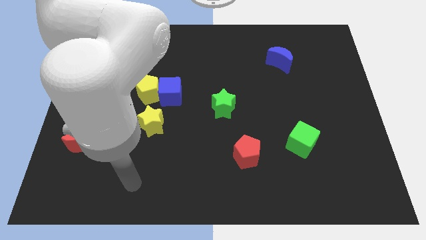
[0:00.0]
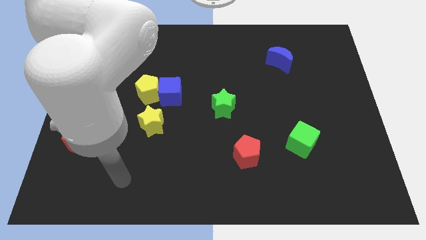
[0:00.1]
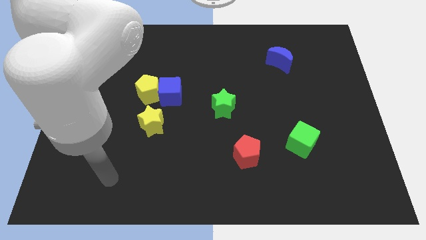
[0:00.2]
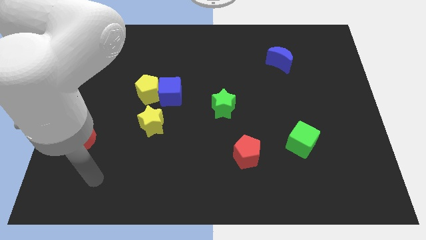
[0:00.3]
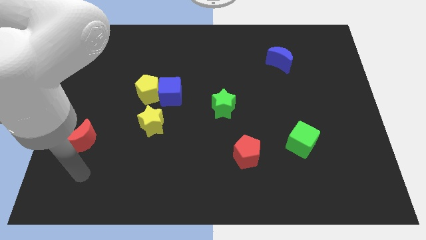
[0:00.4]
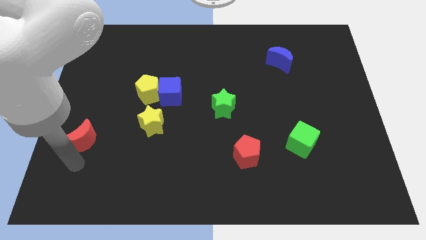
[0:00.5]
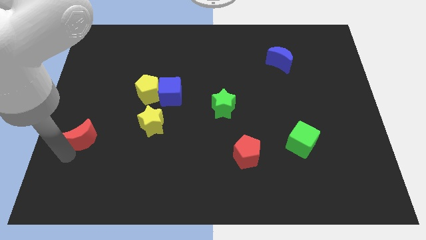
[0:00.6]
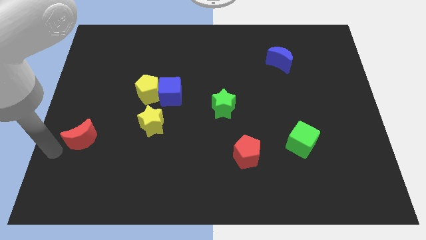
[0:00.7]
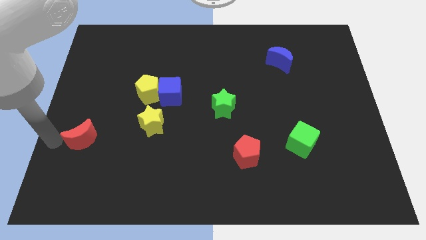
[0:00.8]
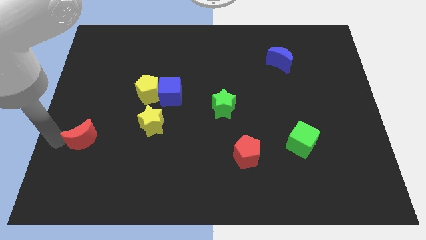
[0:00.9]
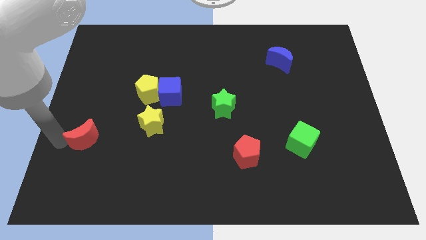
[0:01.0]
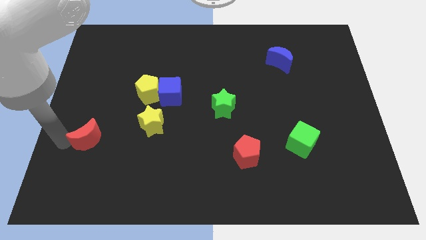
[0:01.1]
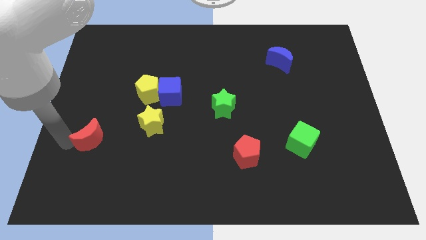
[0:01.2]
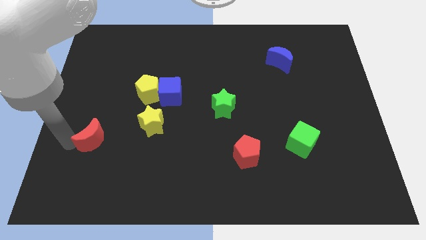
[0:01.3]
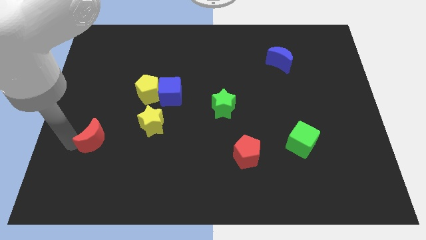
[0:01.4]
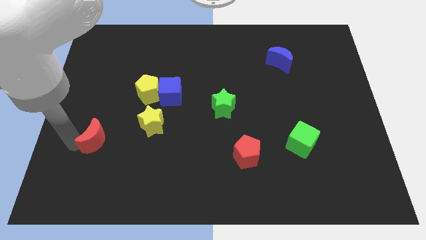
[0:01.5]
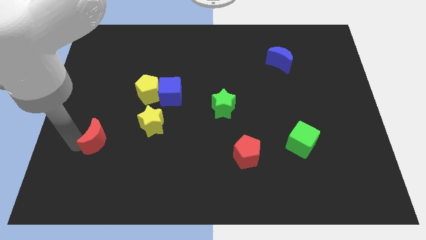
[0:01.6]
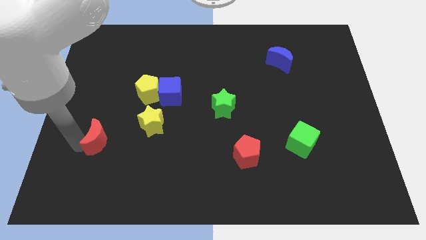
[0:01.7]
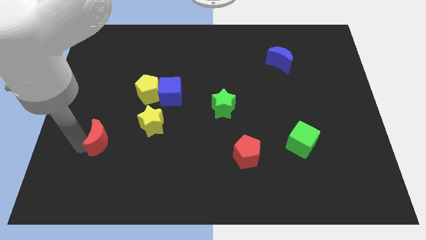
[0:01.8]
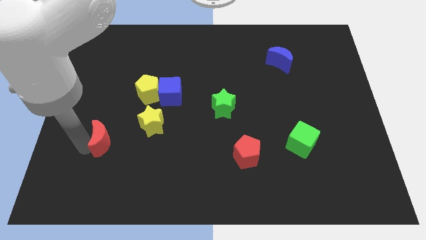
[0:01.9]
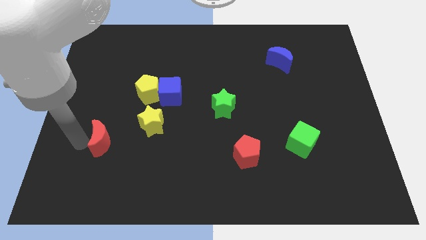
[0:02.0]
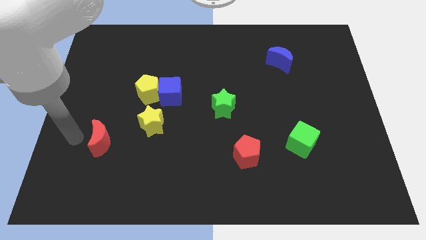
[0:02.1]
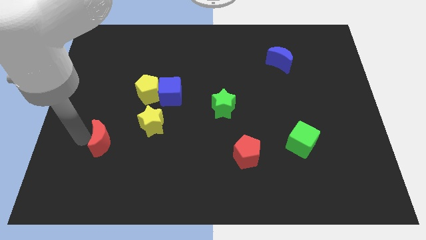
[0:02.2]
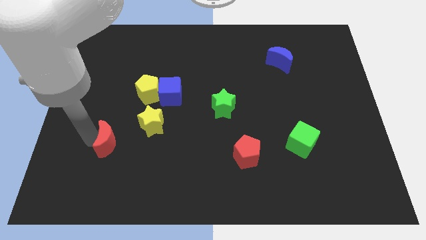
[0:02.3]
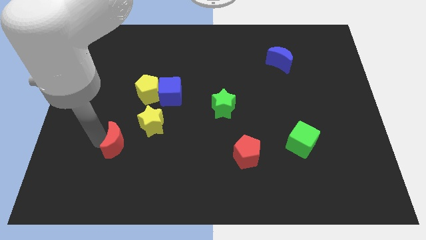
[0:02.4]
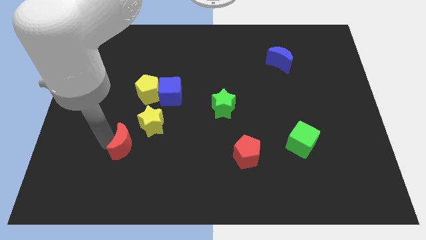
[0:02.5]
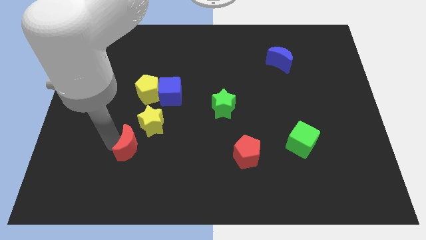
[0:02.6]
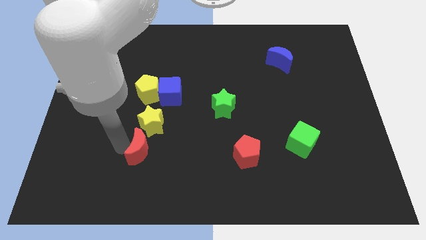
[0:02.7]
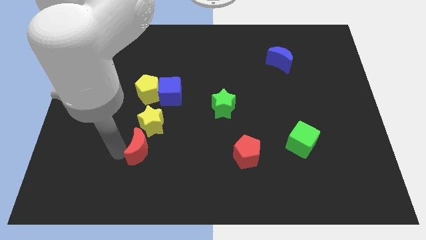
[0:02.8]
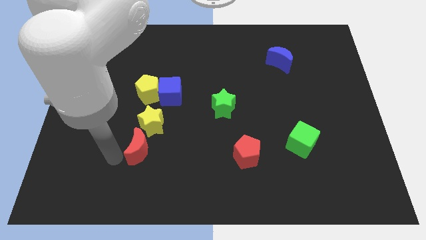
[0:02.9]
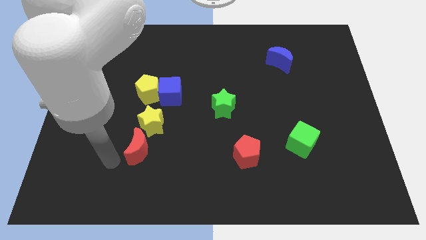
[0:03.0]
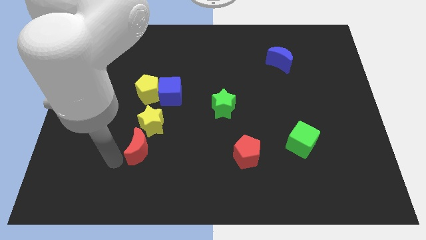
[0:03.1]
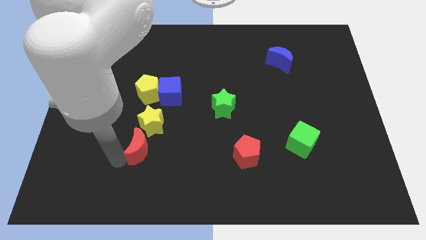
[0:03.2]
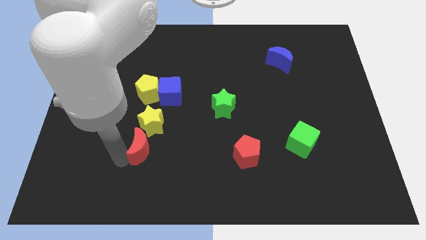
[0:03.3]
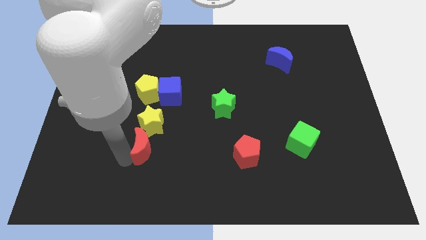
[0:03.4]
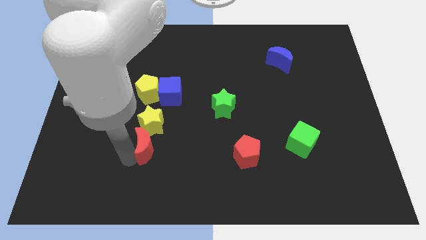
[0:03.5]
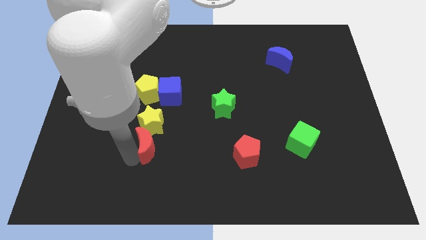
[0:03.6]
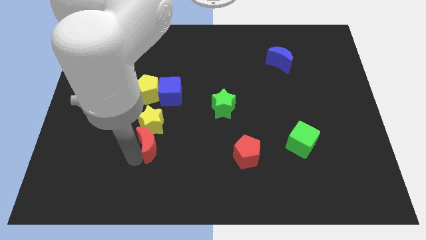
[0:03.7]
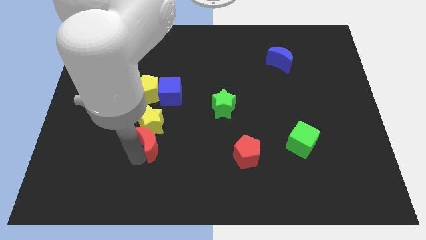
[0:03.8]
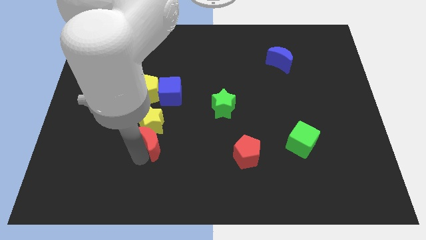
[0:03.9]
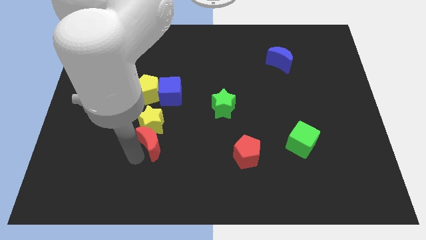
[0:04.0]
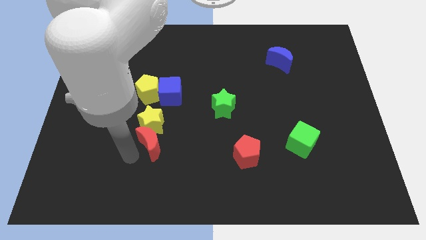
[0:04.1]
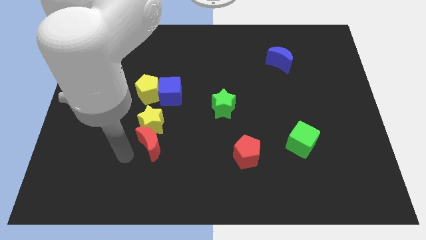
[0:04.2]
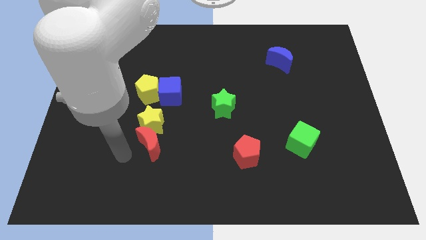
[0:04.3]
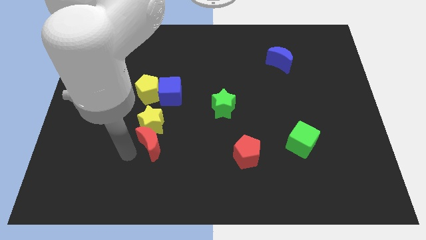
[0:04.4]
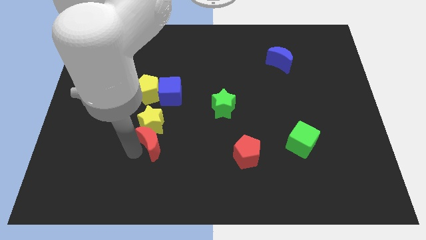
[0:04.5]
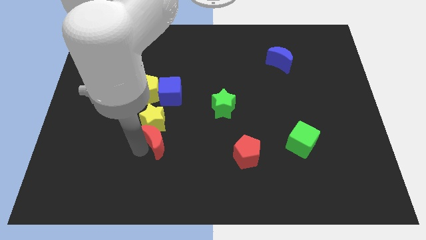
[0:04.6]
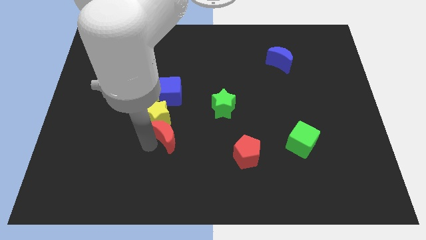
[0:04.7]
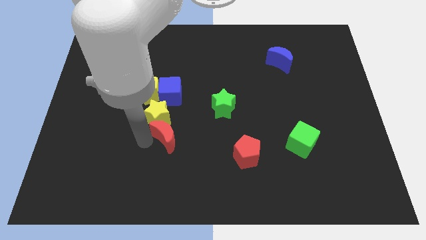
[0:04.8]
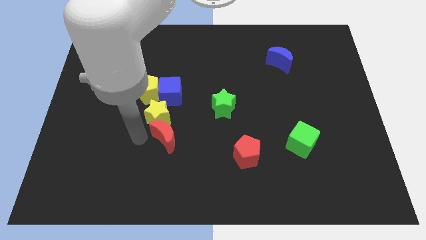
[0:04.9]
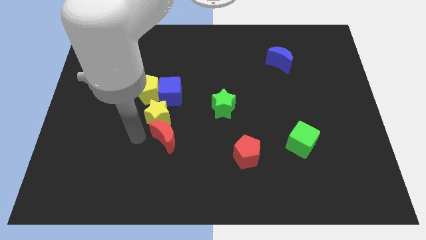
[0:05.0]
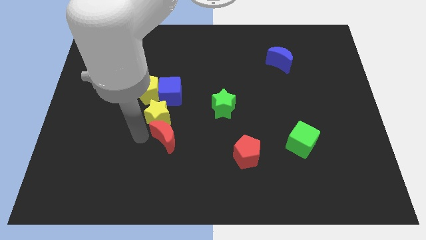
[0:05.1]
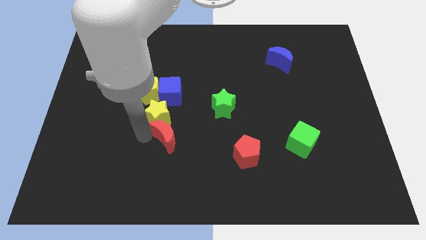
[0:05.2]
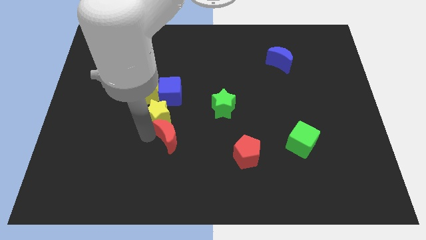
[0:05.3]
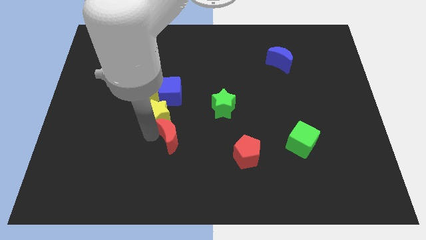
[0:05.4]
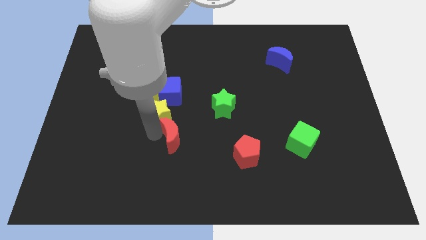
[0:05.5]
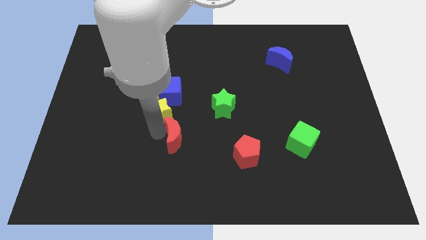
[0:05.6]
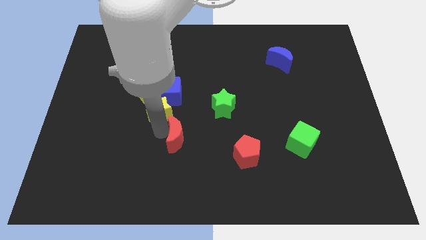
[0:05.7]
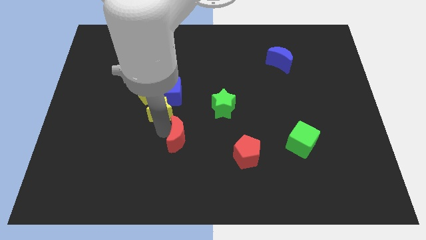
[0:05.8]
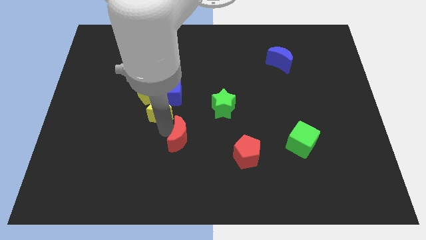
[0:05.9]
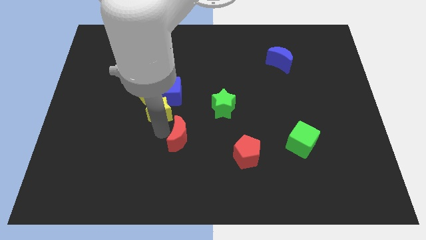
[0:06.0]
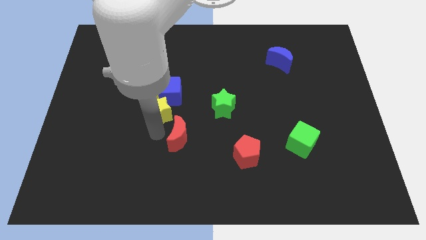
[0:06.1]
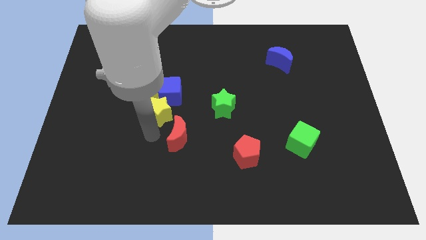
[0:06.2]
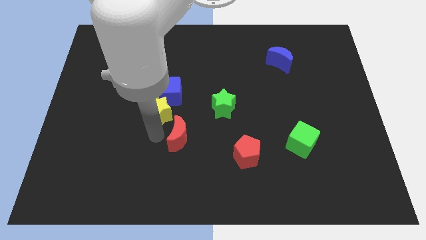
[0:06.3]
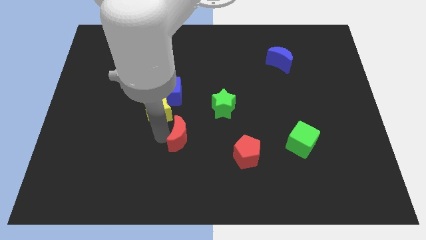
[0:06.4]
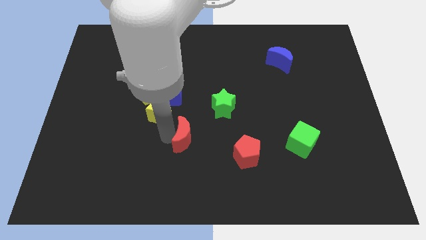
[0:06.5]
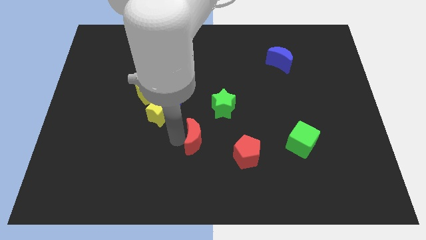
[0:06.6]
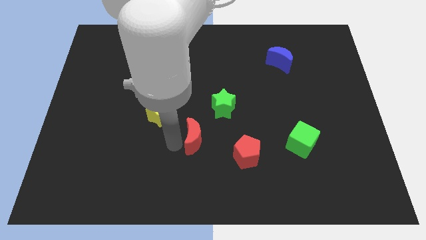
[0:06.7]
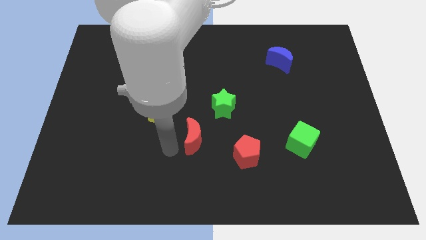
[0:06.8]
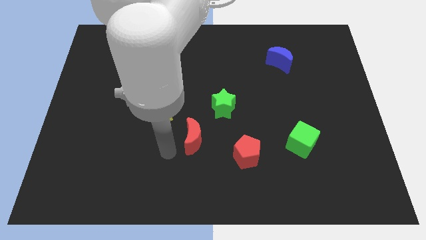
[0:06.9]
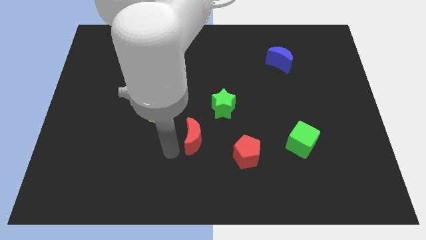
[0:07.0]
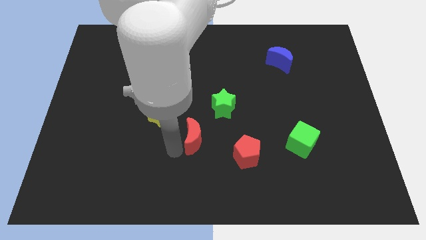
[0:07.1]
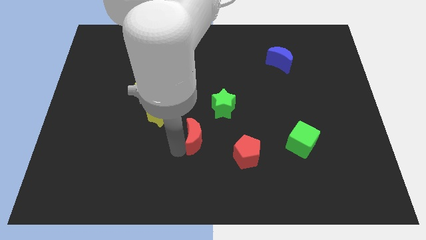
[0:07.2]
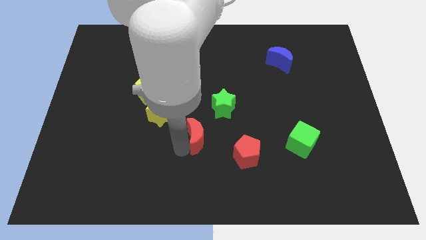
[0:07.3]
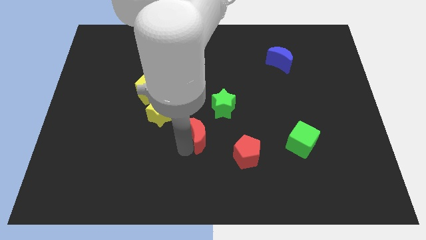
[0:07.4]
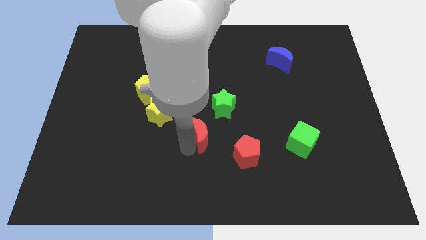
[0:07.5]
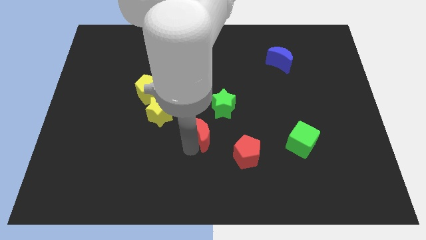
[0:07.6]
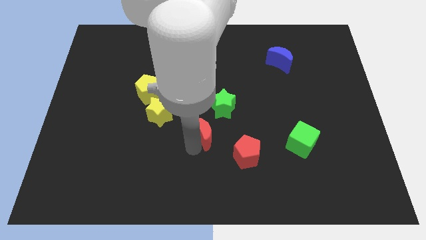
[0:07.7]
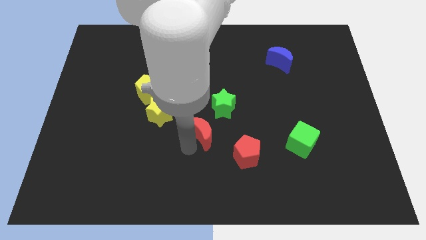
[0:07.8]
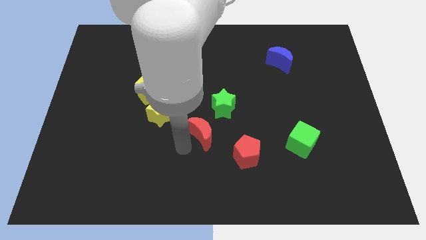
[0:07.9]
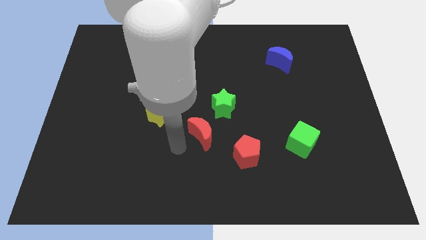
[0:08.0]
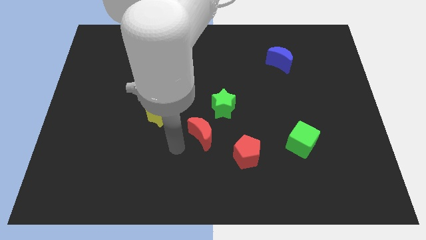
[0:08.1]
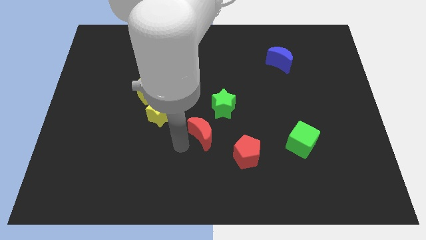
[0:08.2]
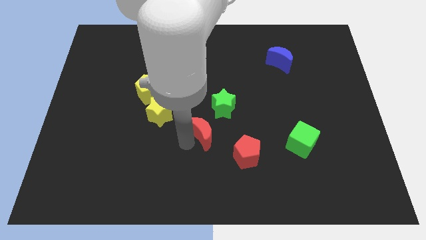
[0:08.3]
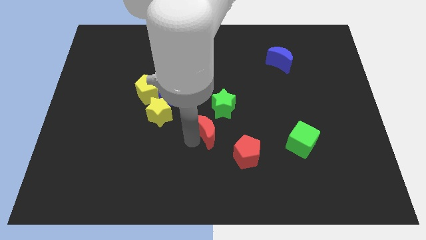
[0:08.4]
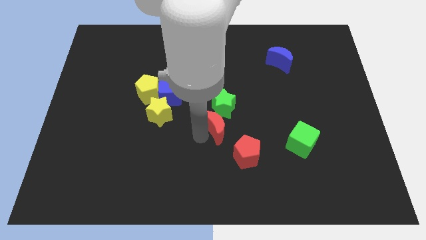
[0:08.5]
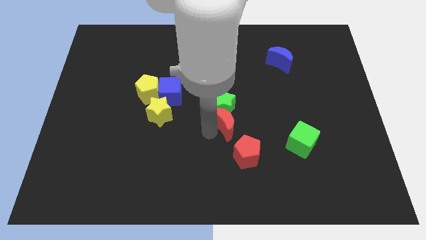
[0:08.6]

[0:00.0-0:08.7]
push the red moon to the top of the red pentagon
